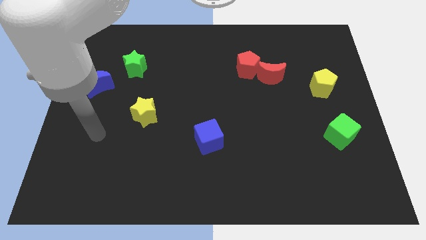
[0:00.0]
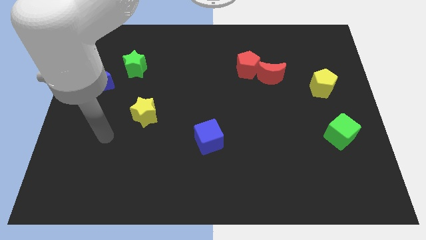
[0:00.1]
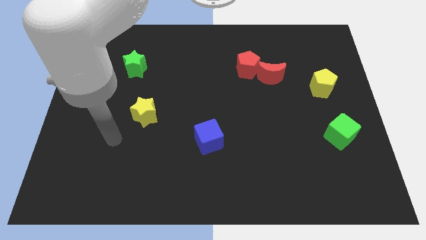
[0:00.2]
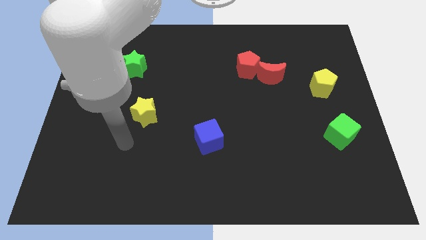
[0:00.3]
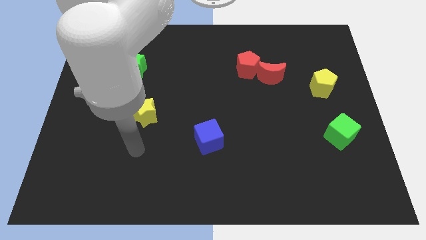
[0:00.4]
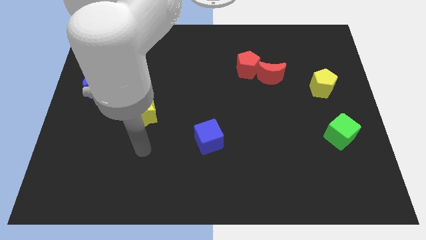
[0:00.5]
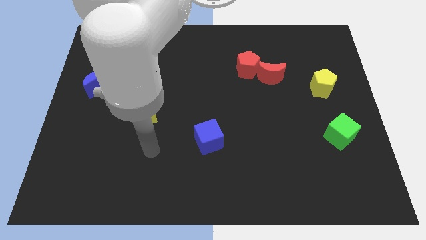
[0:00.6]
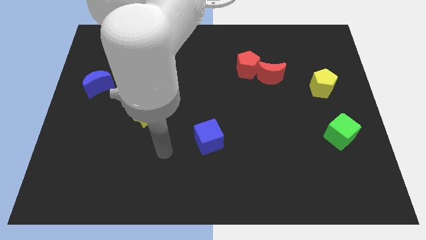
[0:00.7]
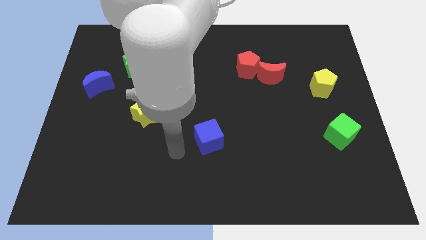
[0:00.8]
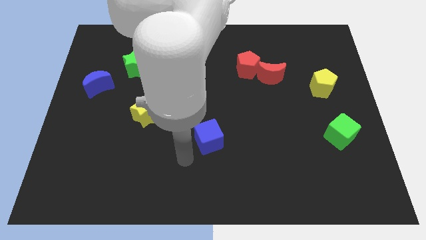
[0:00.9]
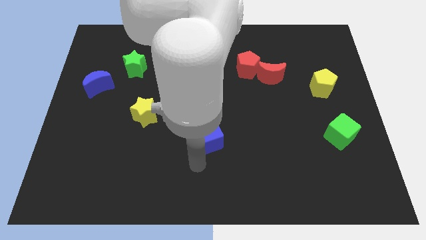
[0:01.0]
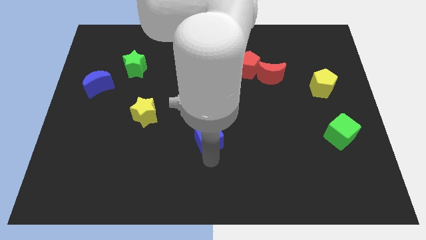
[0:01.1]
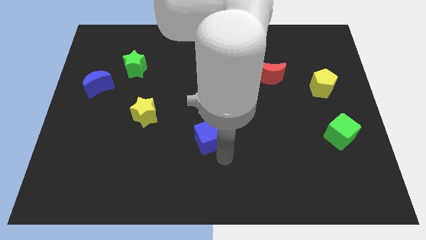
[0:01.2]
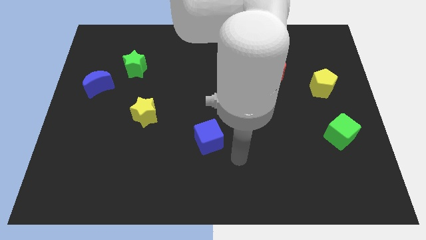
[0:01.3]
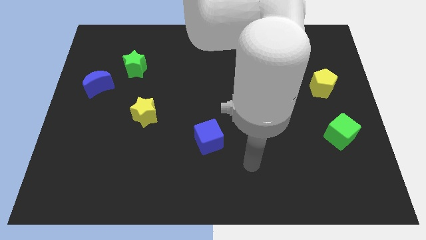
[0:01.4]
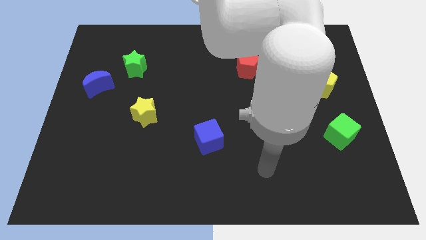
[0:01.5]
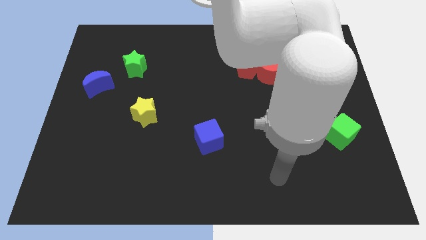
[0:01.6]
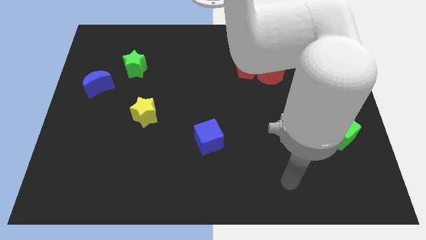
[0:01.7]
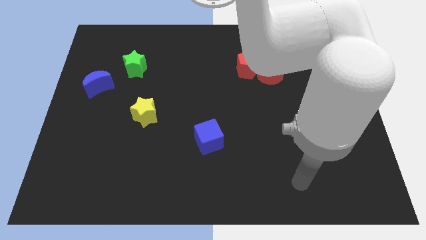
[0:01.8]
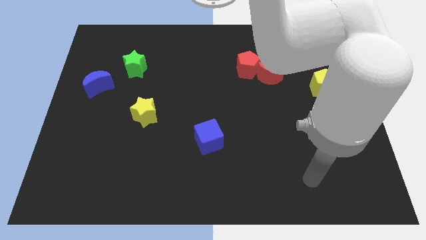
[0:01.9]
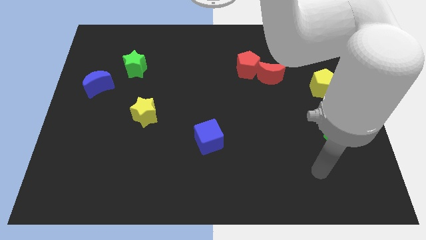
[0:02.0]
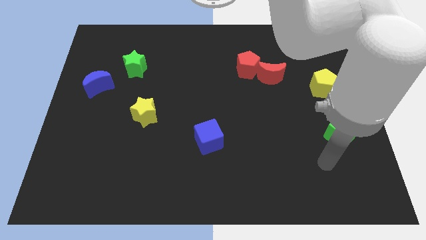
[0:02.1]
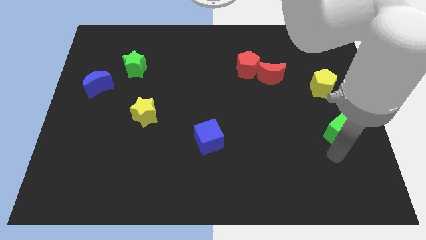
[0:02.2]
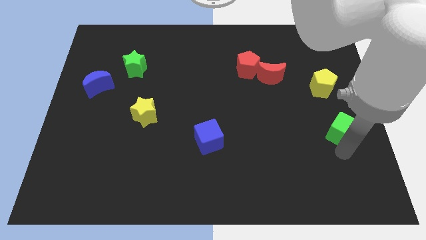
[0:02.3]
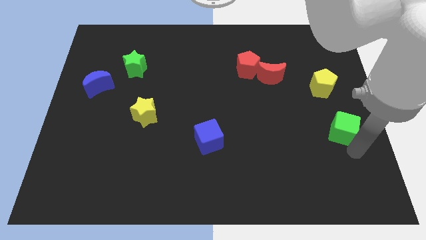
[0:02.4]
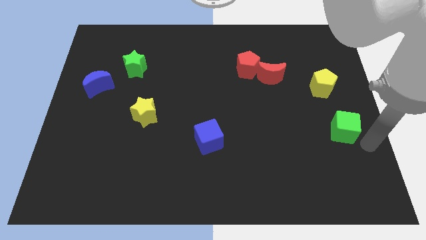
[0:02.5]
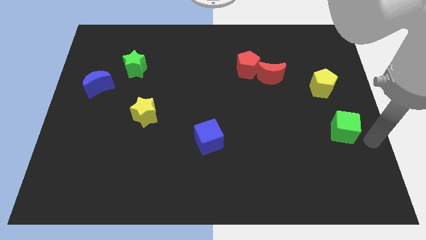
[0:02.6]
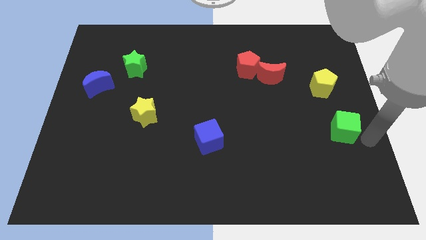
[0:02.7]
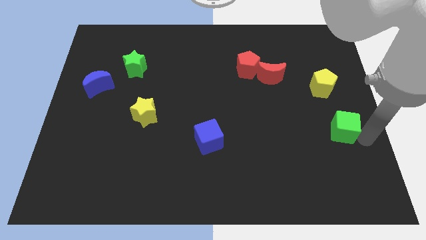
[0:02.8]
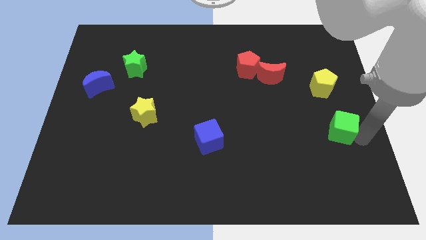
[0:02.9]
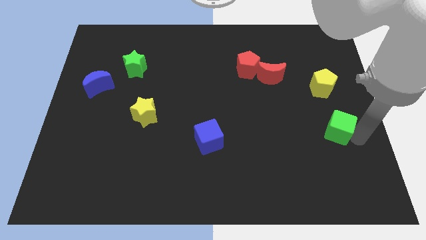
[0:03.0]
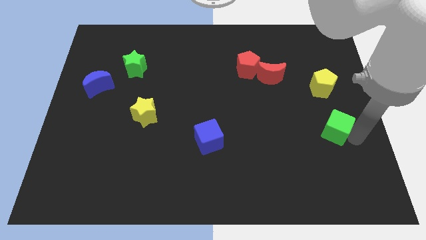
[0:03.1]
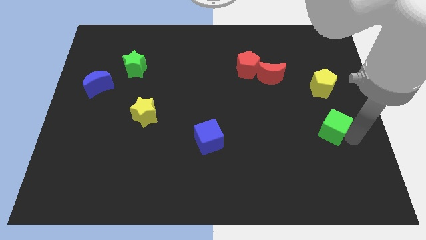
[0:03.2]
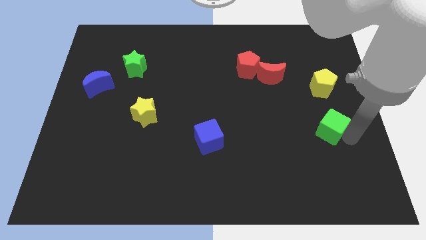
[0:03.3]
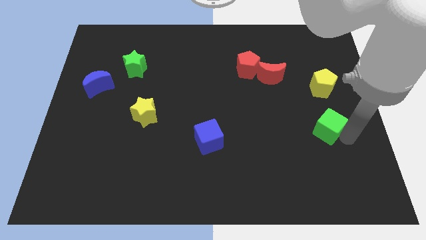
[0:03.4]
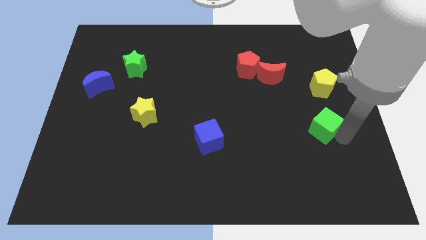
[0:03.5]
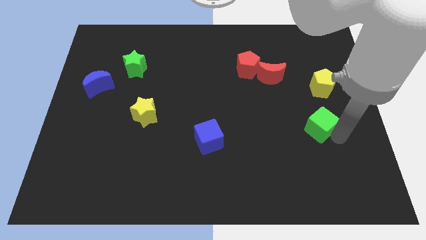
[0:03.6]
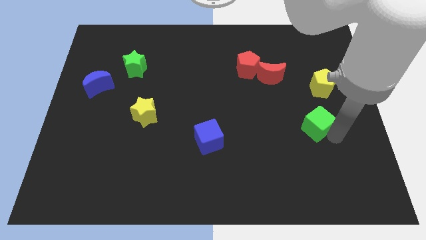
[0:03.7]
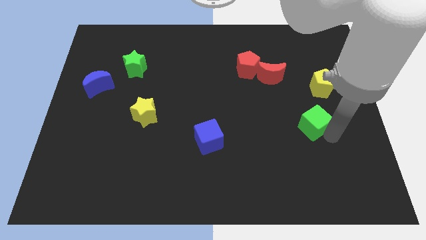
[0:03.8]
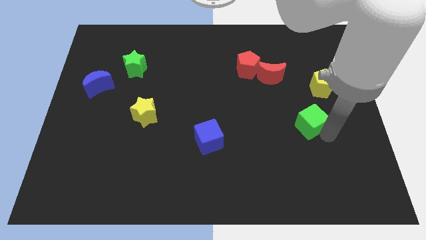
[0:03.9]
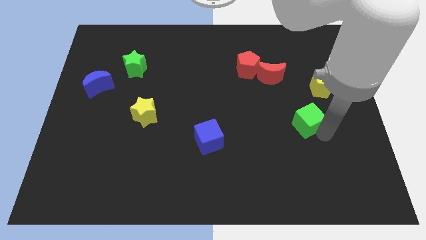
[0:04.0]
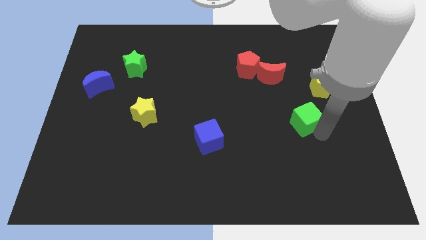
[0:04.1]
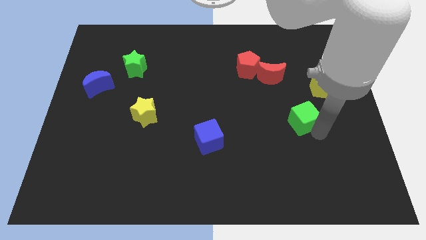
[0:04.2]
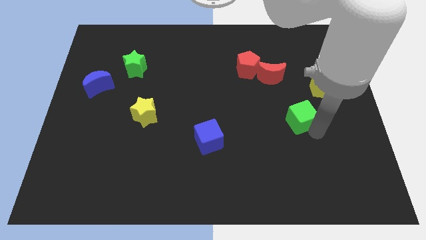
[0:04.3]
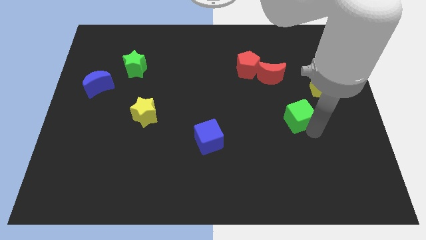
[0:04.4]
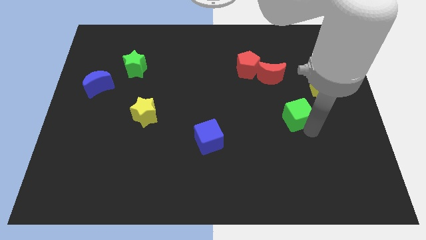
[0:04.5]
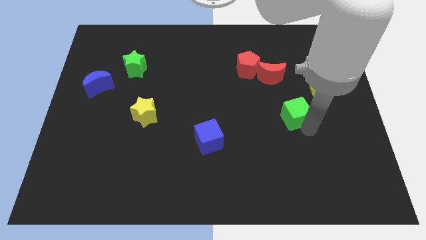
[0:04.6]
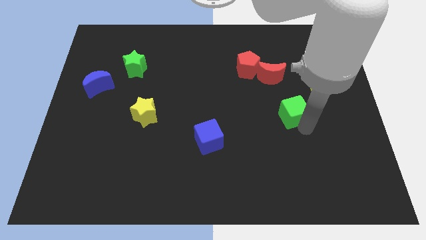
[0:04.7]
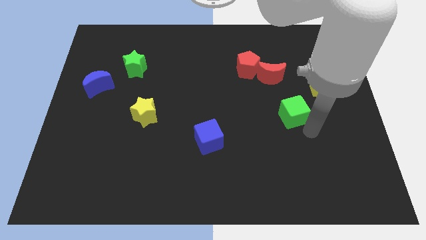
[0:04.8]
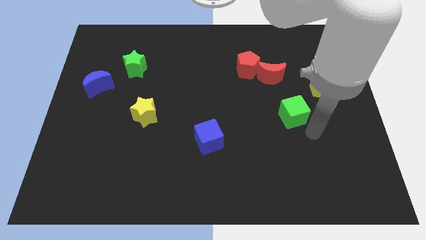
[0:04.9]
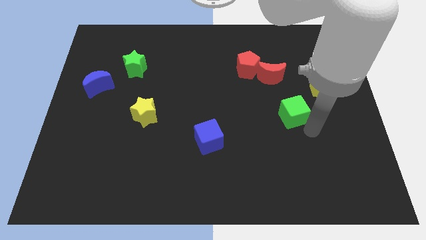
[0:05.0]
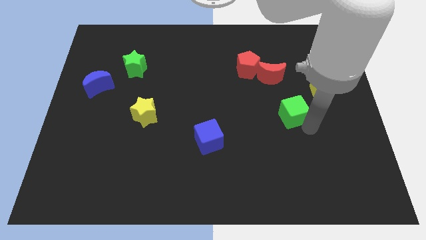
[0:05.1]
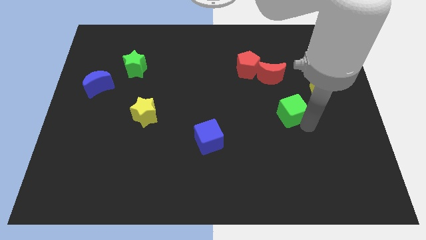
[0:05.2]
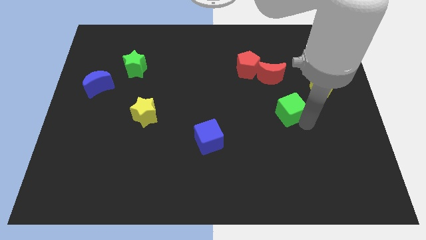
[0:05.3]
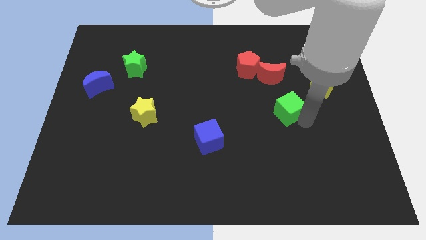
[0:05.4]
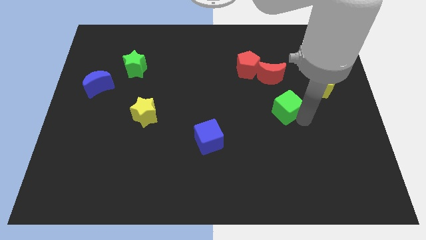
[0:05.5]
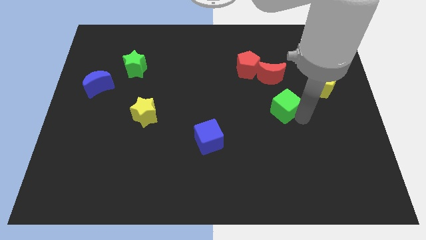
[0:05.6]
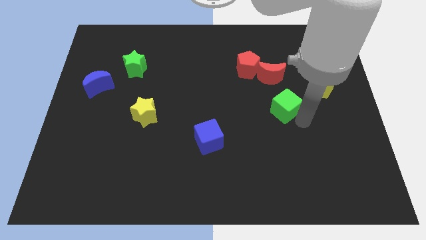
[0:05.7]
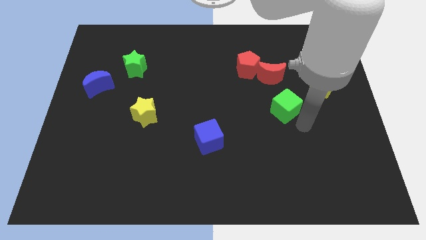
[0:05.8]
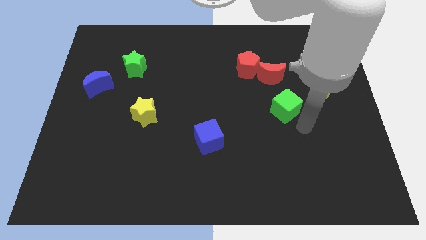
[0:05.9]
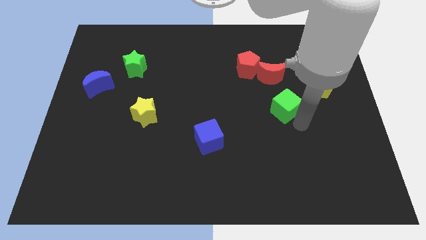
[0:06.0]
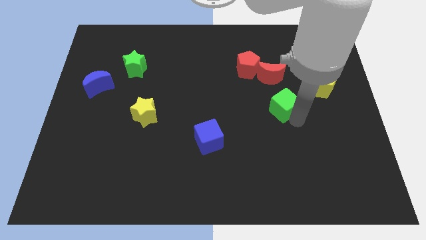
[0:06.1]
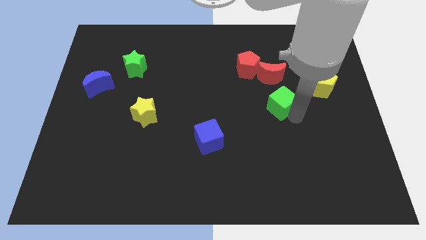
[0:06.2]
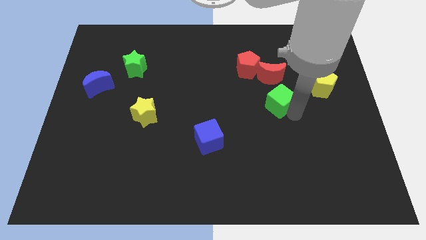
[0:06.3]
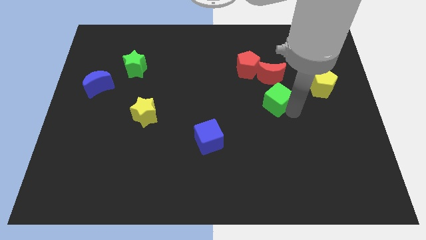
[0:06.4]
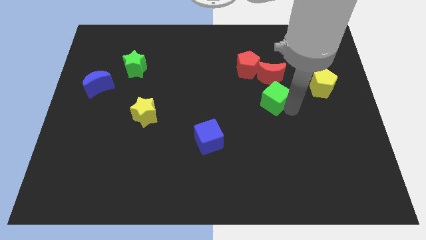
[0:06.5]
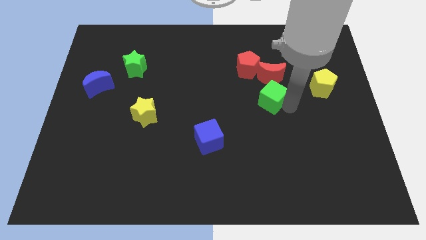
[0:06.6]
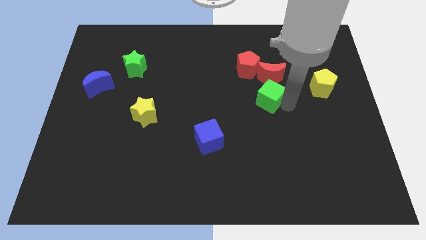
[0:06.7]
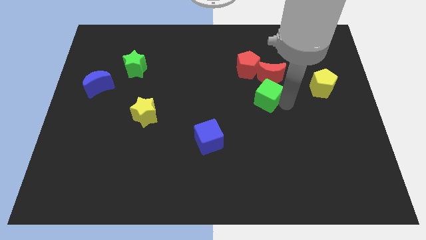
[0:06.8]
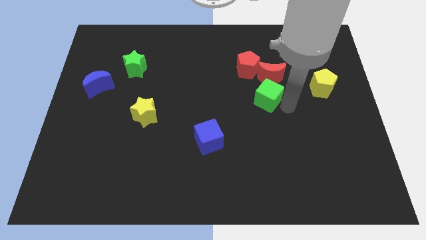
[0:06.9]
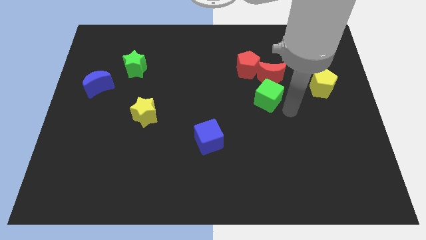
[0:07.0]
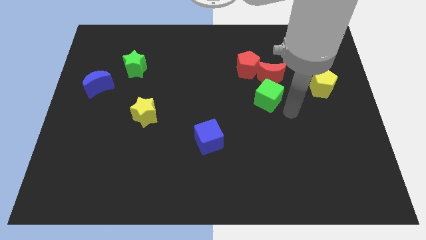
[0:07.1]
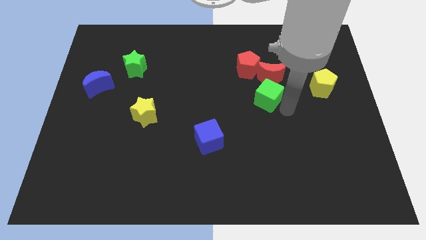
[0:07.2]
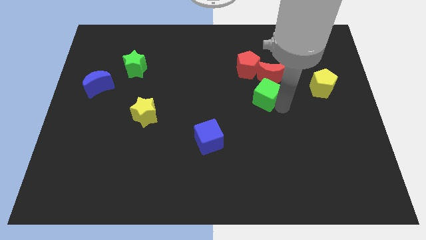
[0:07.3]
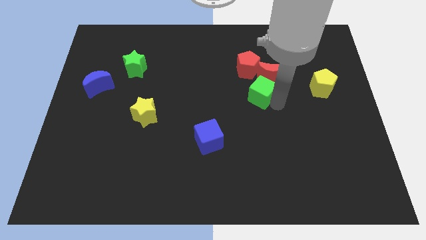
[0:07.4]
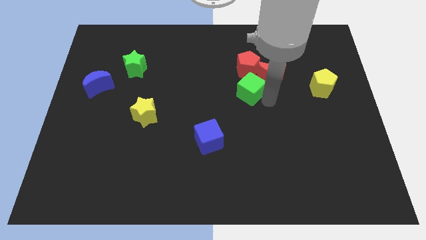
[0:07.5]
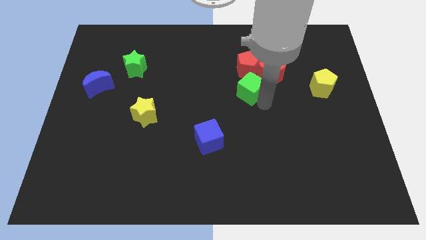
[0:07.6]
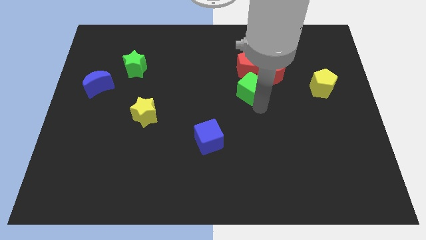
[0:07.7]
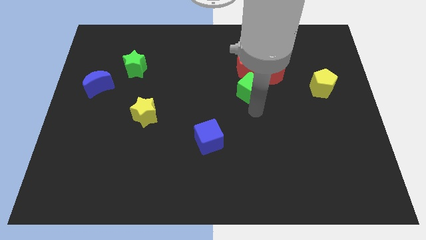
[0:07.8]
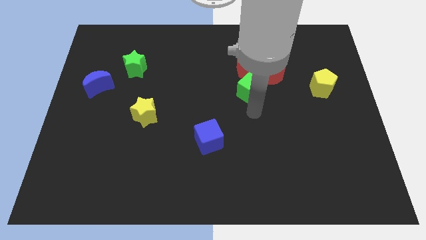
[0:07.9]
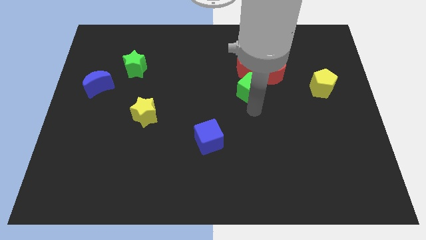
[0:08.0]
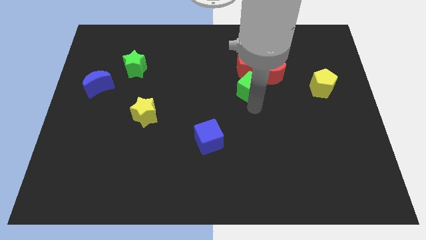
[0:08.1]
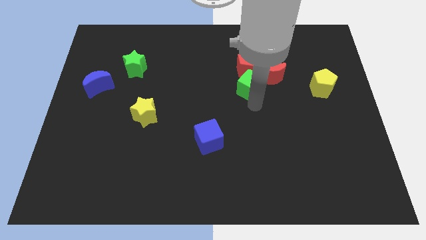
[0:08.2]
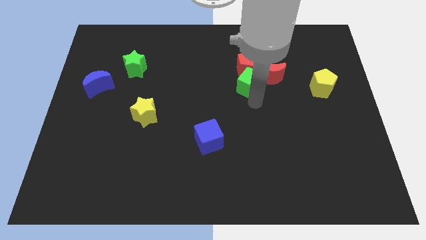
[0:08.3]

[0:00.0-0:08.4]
slide the green cube close to the red pentagon
